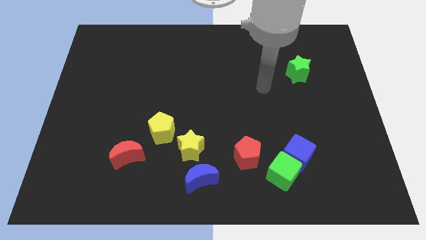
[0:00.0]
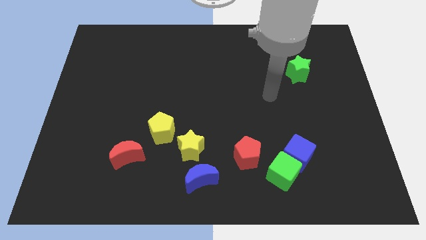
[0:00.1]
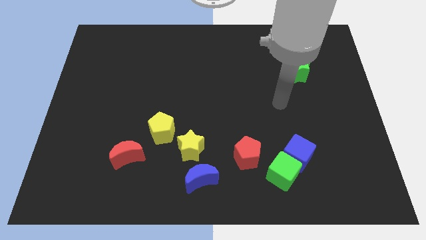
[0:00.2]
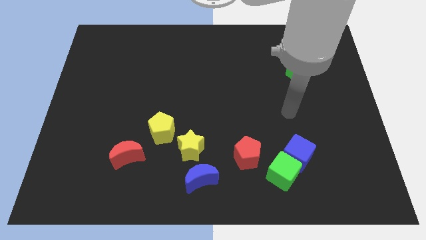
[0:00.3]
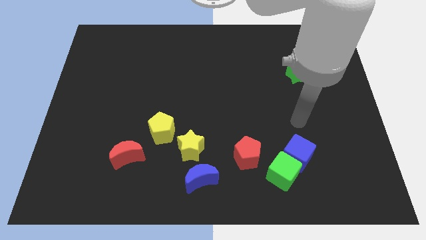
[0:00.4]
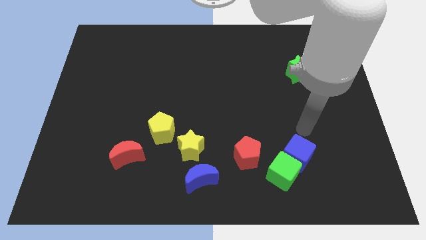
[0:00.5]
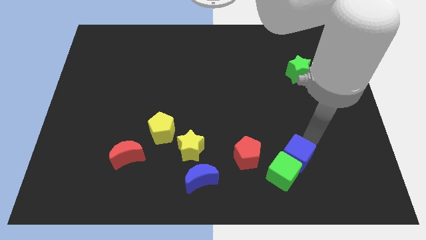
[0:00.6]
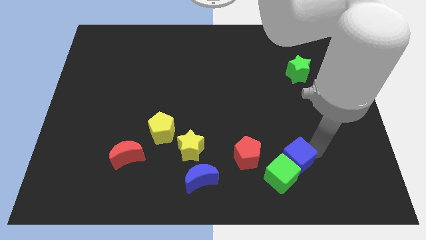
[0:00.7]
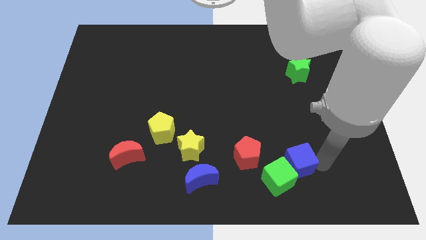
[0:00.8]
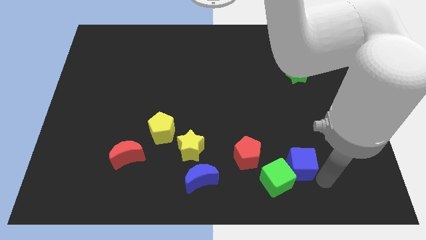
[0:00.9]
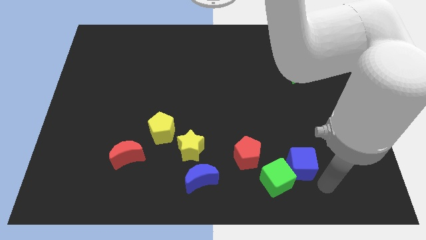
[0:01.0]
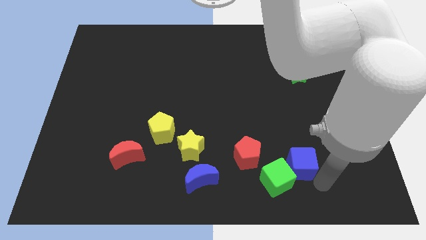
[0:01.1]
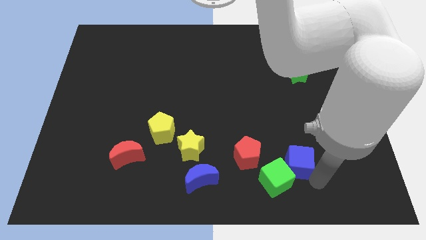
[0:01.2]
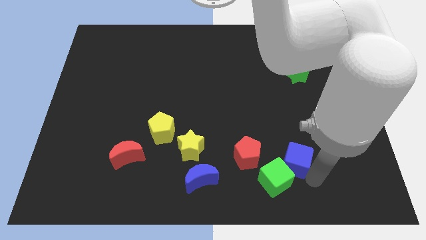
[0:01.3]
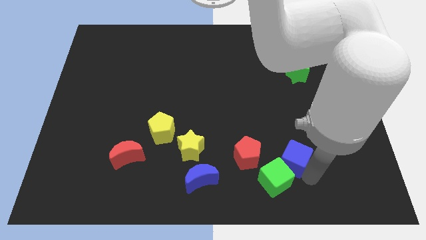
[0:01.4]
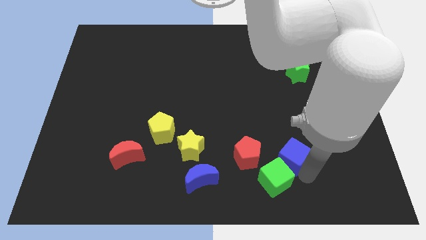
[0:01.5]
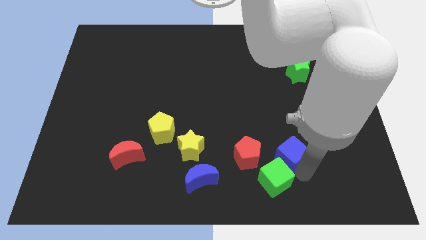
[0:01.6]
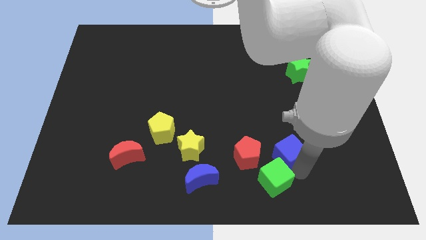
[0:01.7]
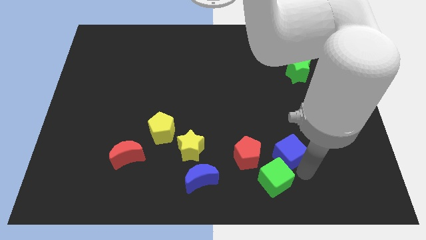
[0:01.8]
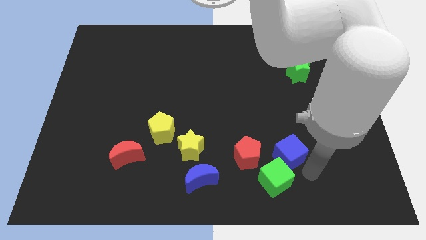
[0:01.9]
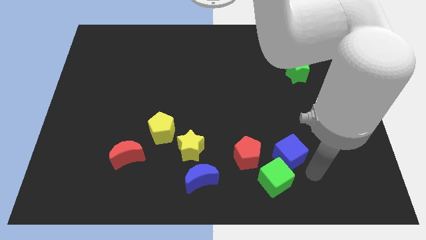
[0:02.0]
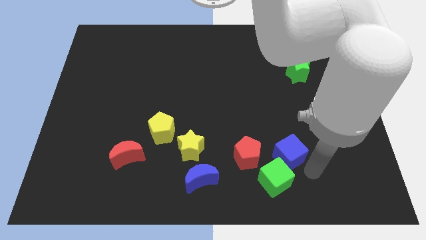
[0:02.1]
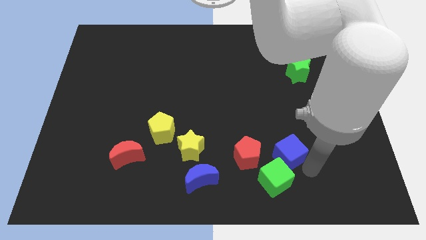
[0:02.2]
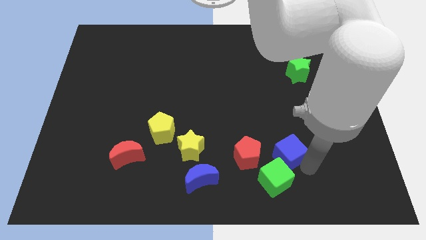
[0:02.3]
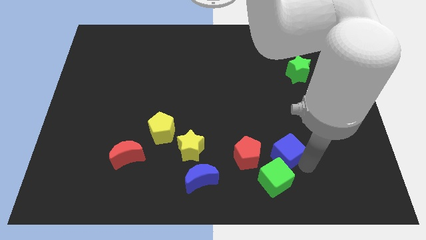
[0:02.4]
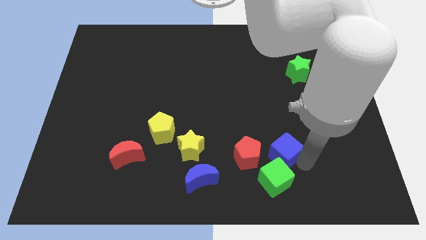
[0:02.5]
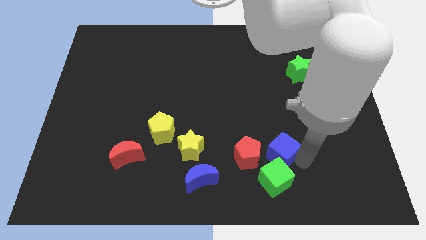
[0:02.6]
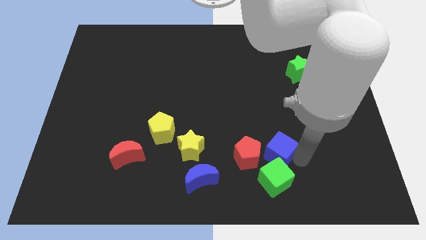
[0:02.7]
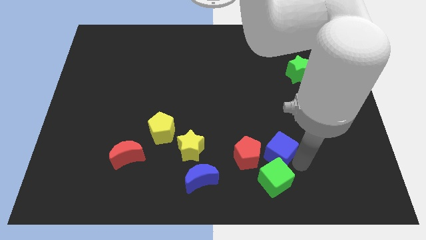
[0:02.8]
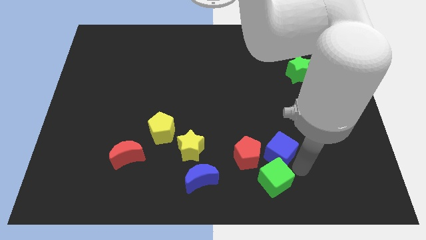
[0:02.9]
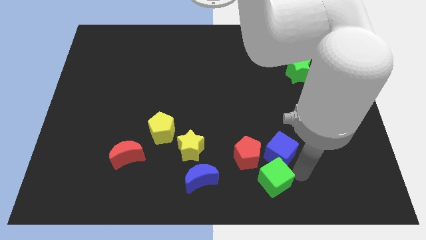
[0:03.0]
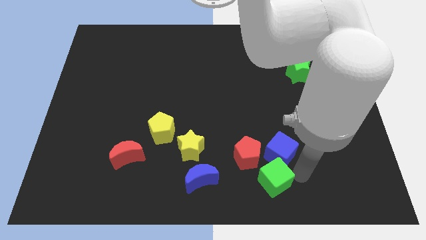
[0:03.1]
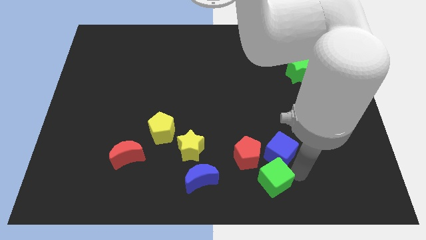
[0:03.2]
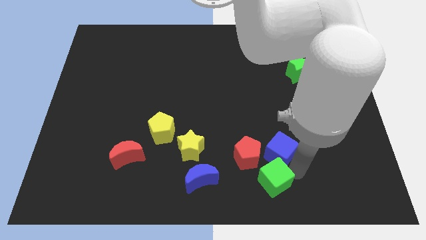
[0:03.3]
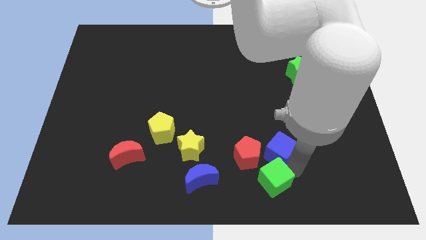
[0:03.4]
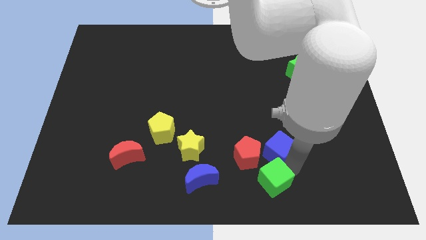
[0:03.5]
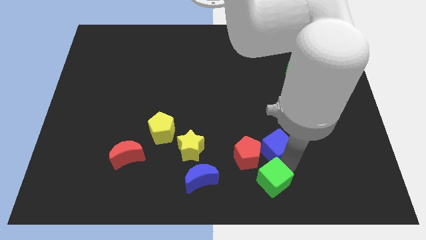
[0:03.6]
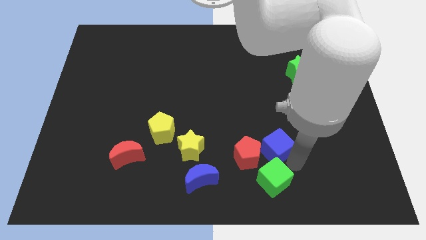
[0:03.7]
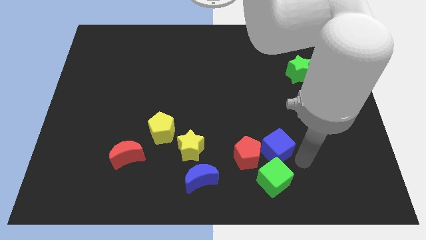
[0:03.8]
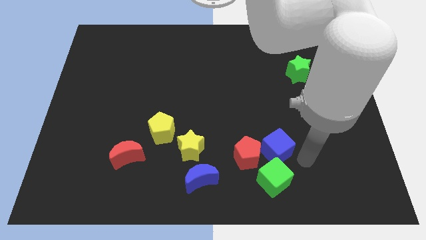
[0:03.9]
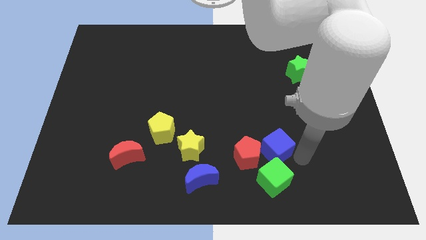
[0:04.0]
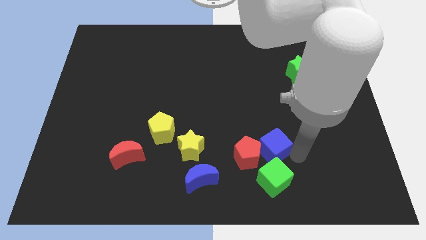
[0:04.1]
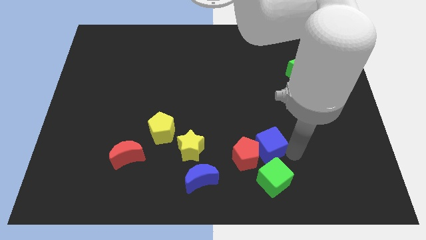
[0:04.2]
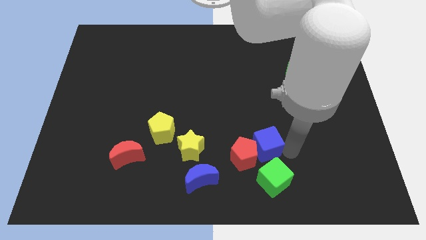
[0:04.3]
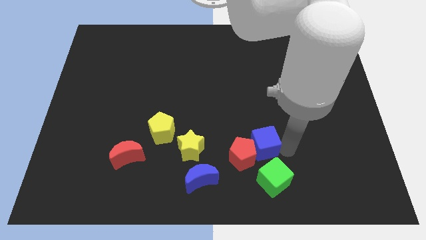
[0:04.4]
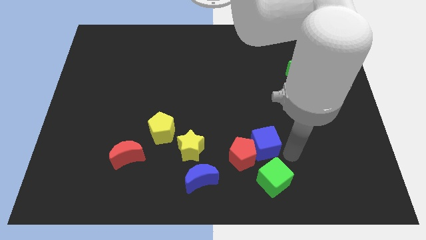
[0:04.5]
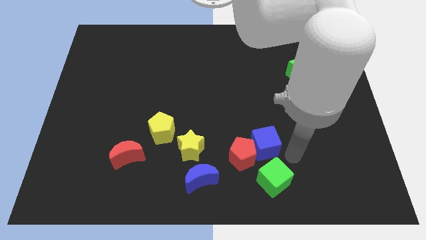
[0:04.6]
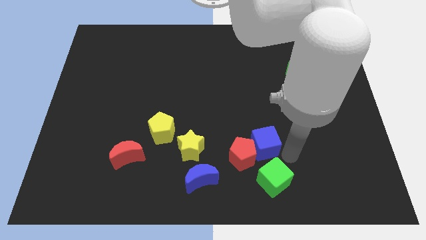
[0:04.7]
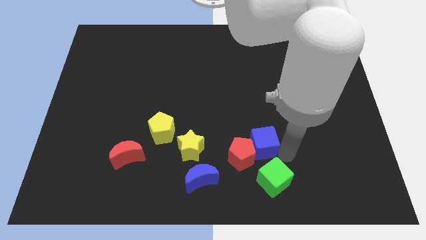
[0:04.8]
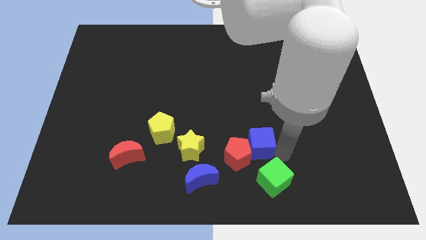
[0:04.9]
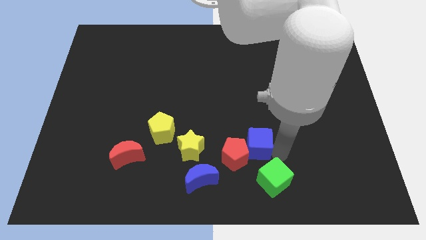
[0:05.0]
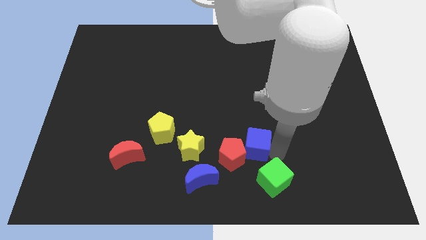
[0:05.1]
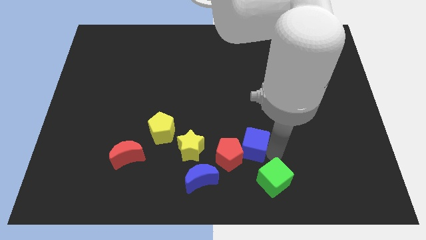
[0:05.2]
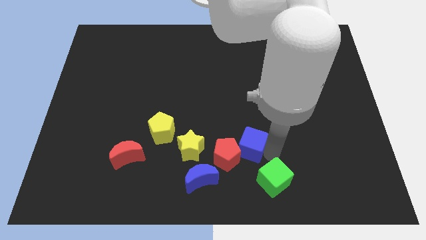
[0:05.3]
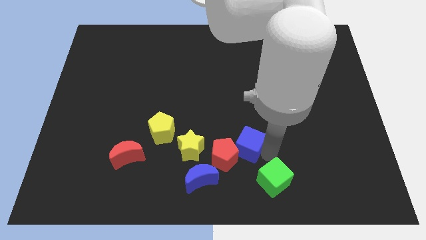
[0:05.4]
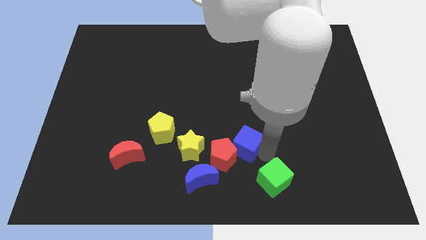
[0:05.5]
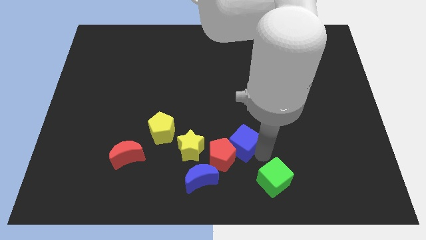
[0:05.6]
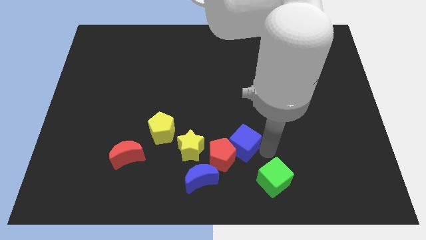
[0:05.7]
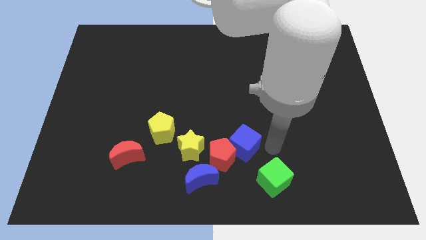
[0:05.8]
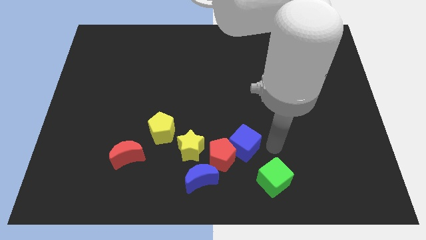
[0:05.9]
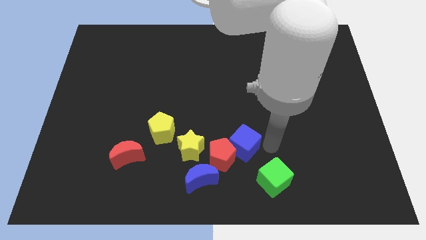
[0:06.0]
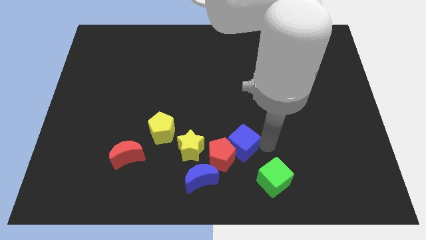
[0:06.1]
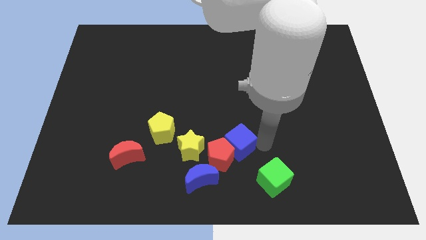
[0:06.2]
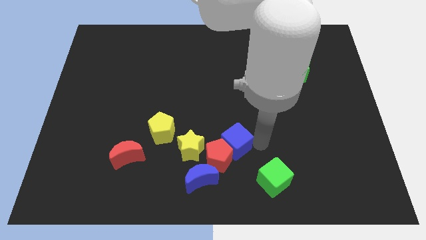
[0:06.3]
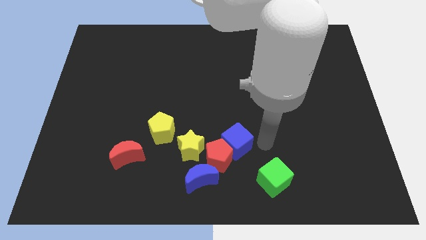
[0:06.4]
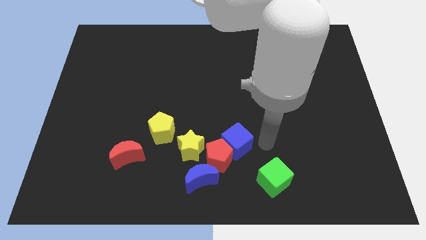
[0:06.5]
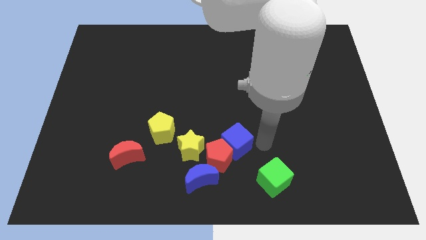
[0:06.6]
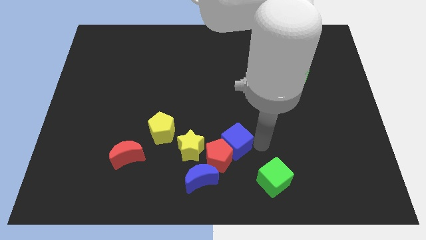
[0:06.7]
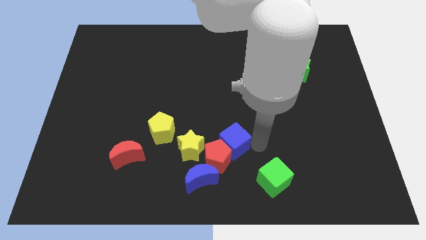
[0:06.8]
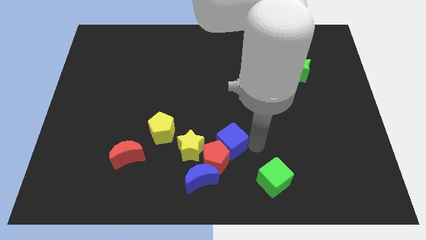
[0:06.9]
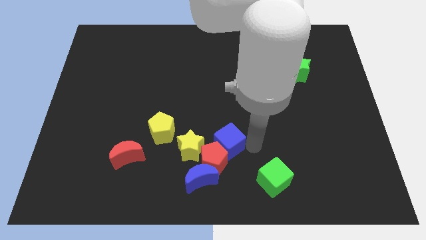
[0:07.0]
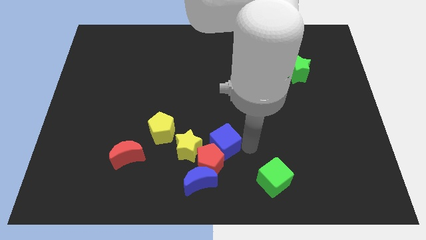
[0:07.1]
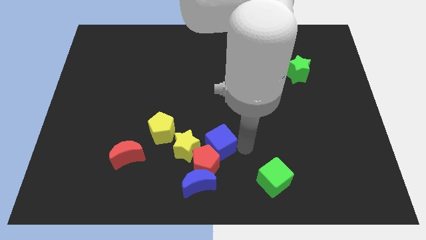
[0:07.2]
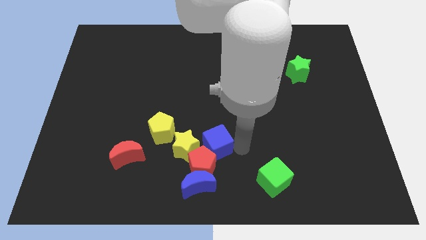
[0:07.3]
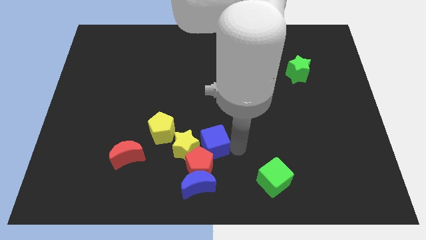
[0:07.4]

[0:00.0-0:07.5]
put the blue cube to the yellow star
